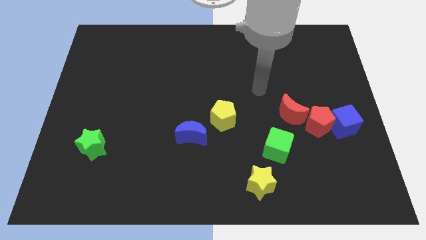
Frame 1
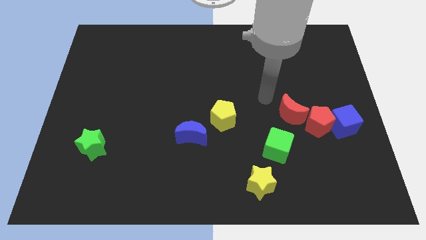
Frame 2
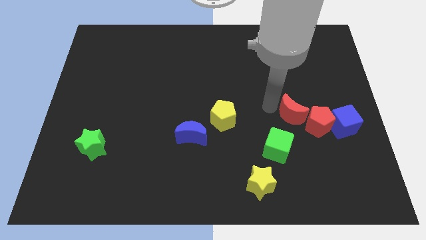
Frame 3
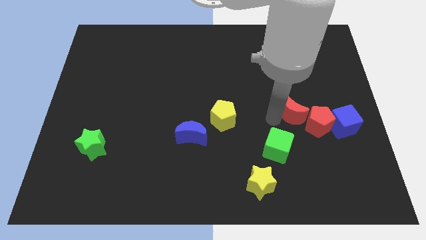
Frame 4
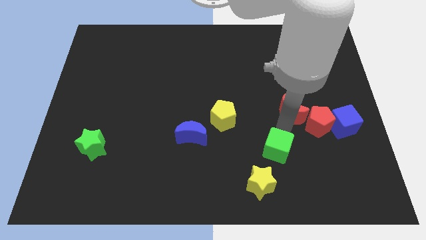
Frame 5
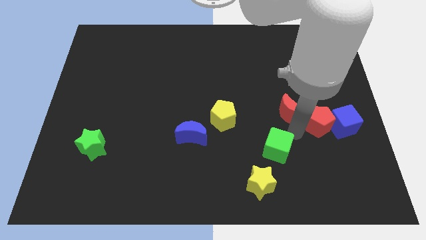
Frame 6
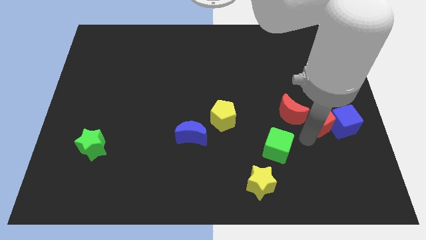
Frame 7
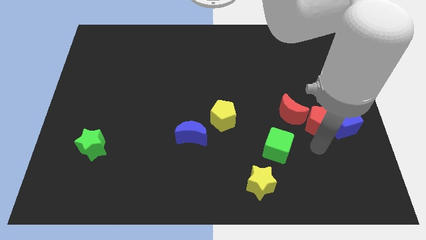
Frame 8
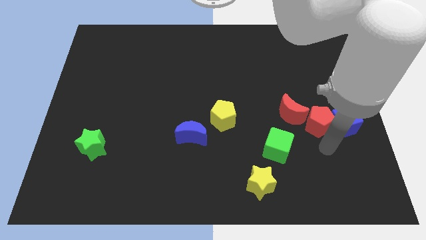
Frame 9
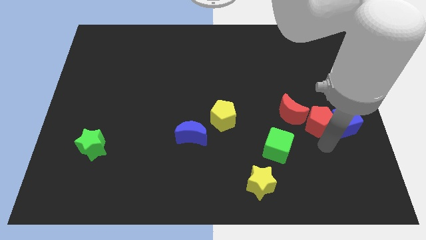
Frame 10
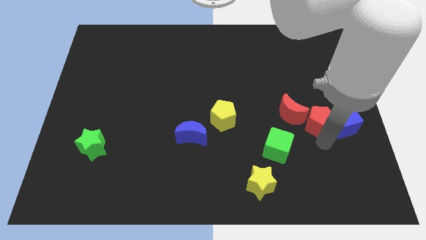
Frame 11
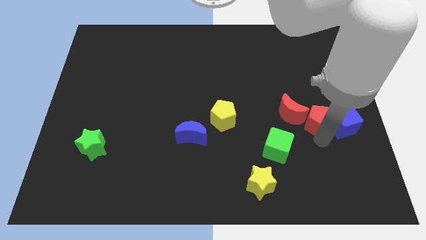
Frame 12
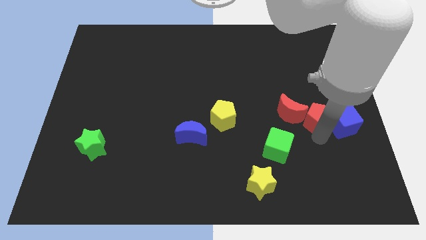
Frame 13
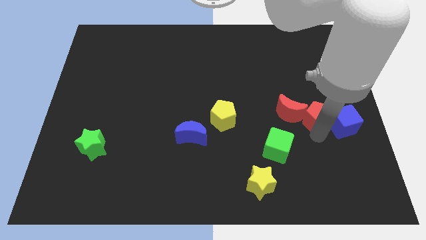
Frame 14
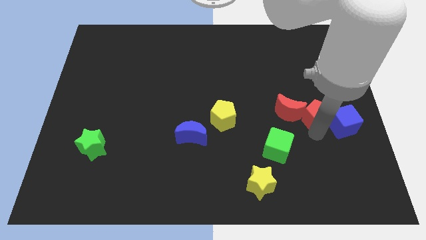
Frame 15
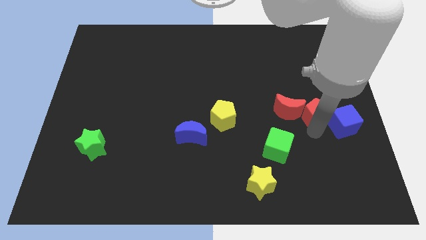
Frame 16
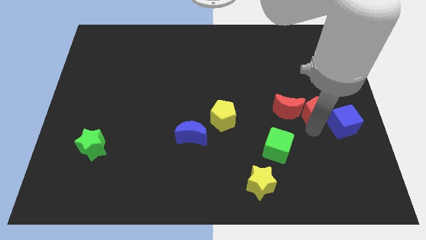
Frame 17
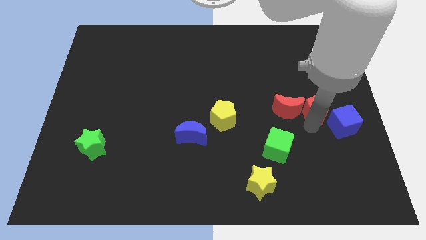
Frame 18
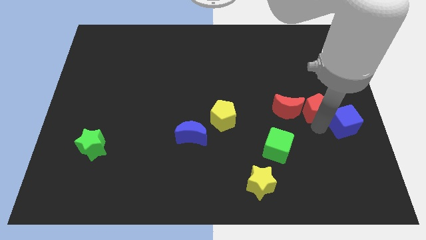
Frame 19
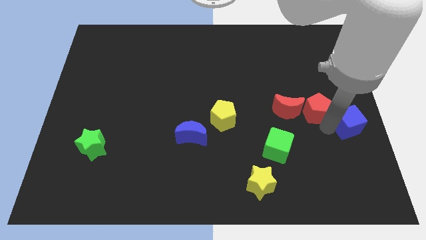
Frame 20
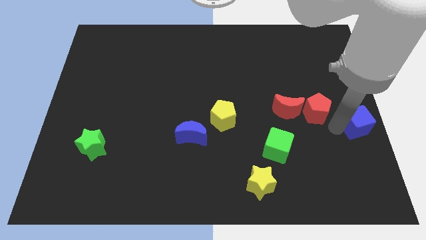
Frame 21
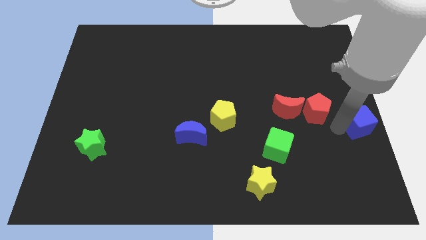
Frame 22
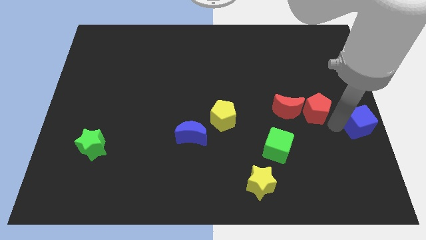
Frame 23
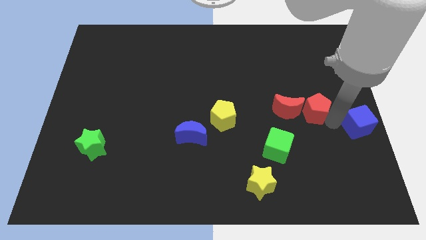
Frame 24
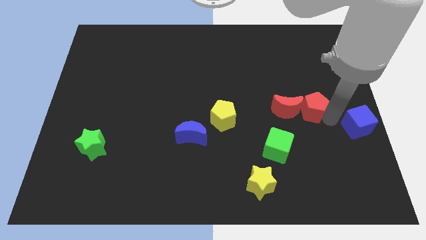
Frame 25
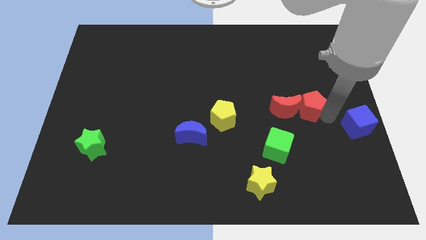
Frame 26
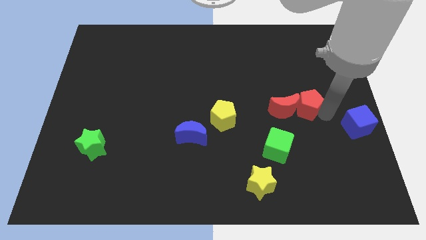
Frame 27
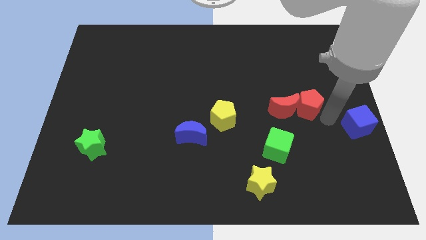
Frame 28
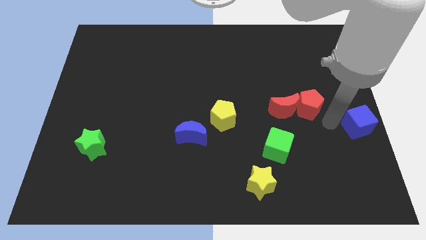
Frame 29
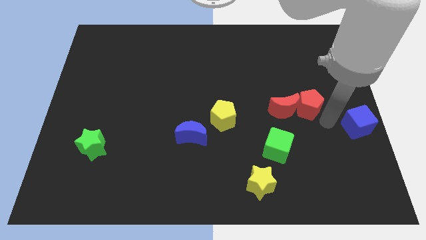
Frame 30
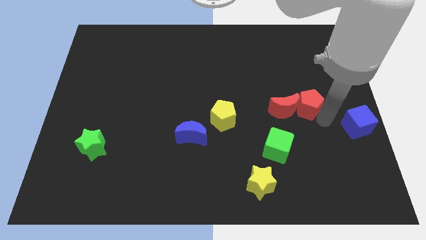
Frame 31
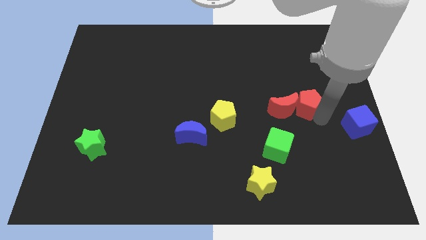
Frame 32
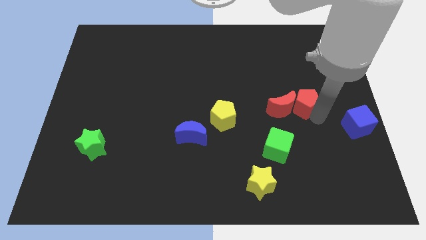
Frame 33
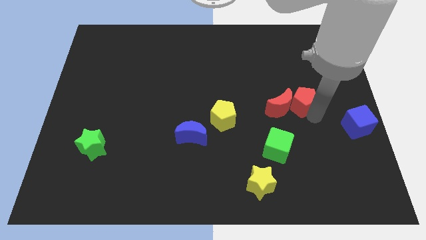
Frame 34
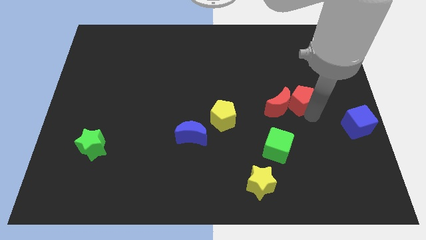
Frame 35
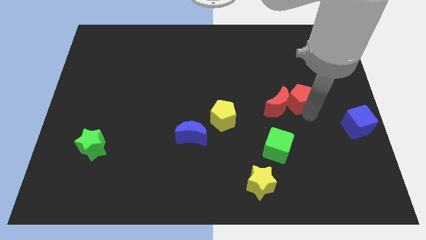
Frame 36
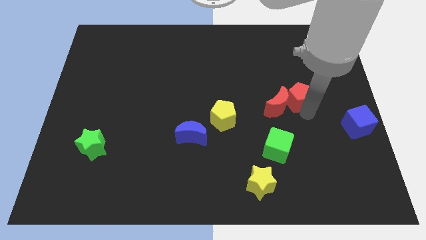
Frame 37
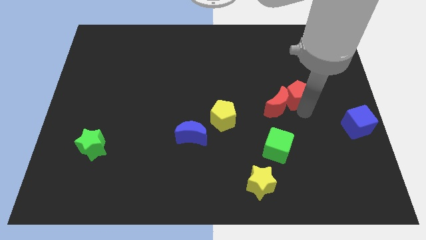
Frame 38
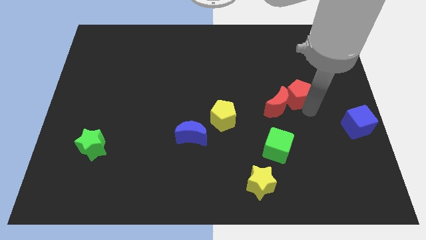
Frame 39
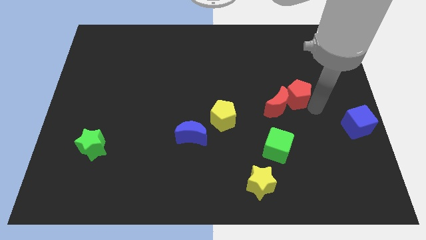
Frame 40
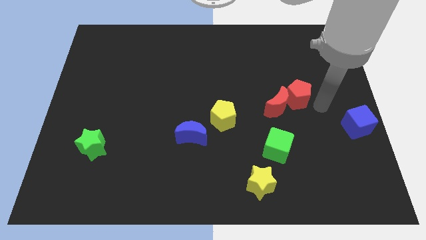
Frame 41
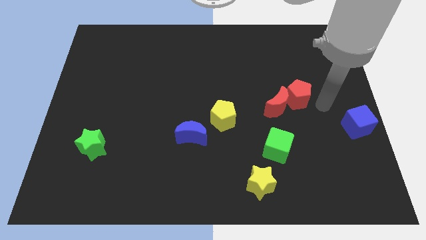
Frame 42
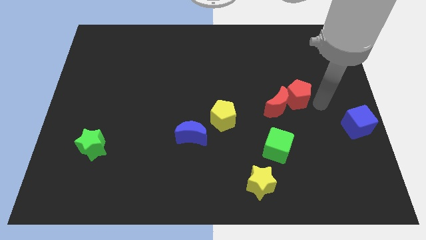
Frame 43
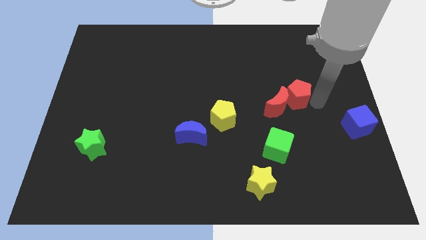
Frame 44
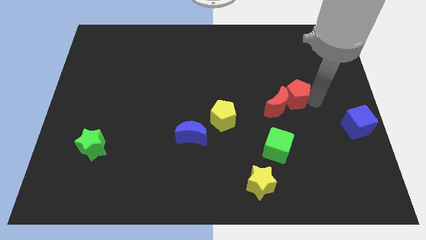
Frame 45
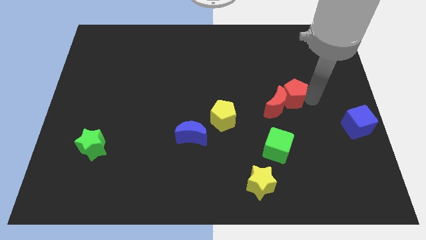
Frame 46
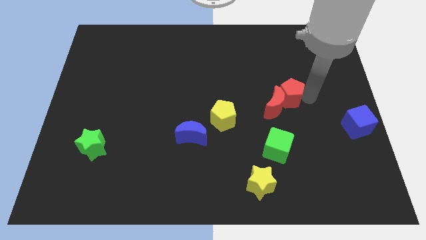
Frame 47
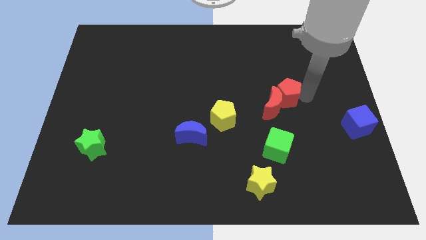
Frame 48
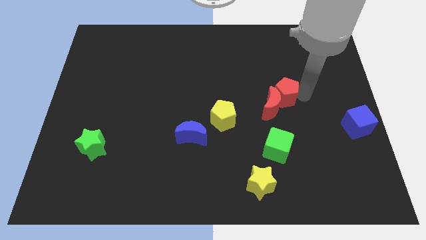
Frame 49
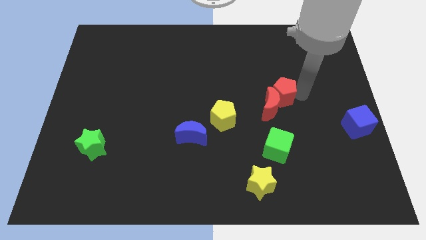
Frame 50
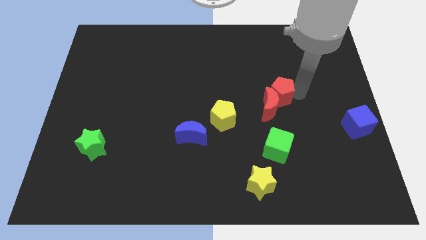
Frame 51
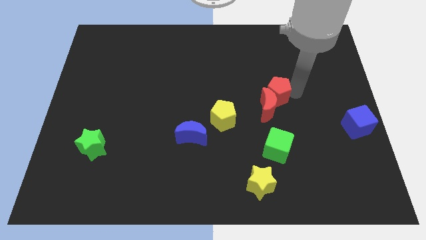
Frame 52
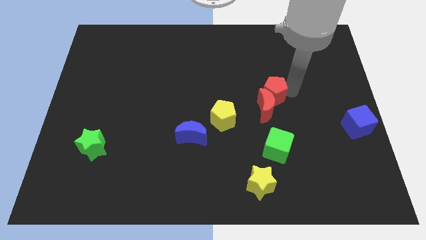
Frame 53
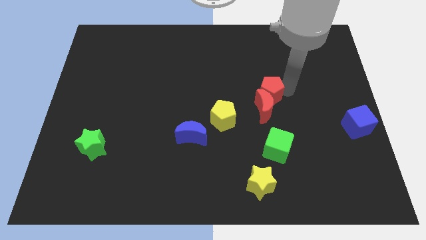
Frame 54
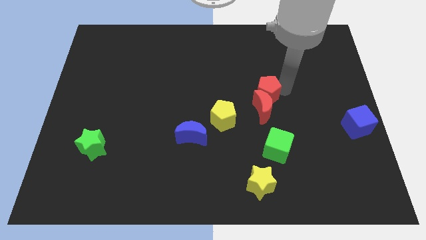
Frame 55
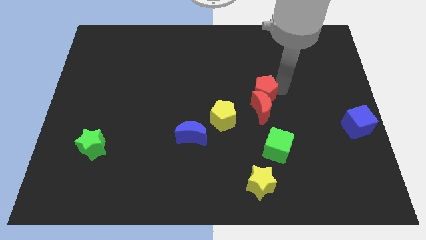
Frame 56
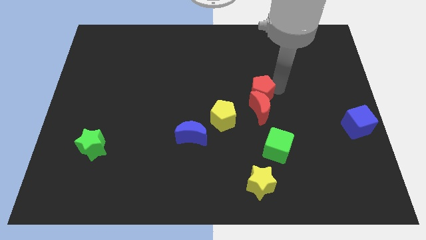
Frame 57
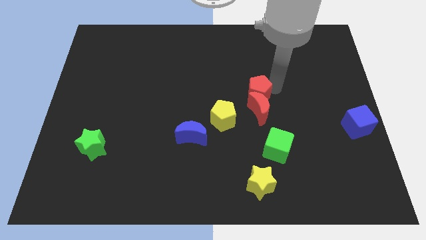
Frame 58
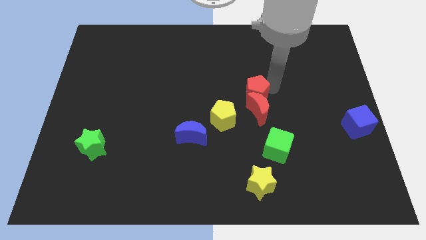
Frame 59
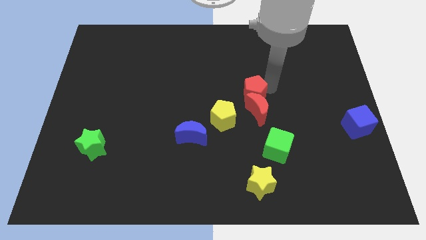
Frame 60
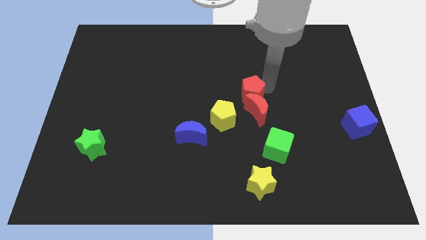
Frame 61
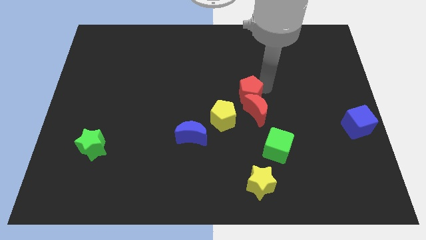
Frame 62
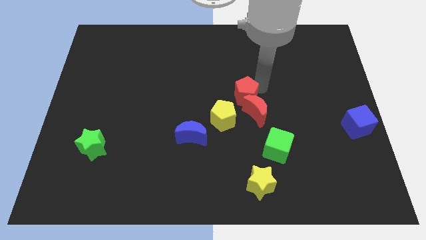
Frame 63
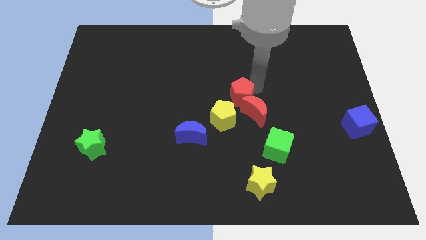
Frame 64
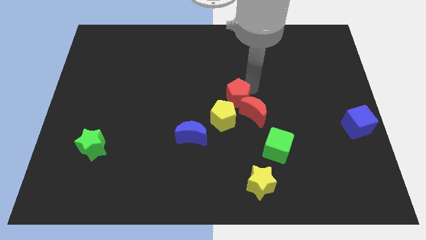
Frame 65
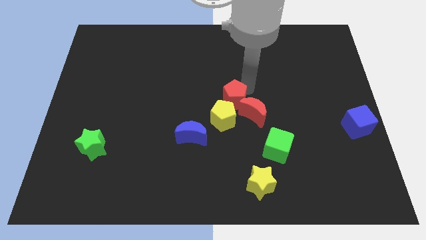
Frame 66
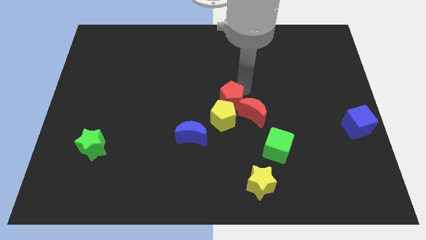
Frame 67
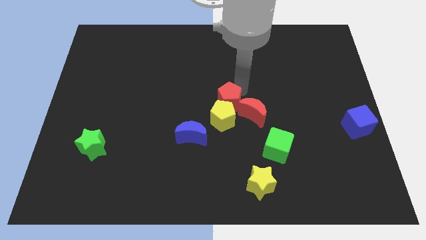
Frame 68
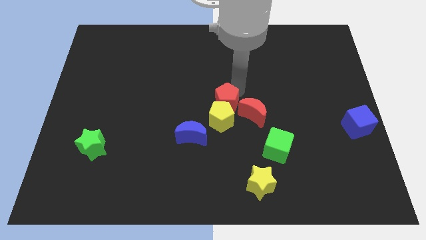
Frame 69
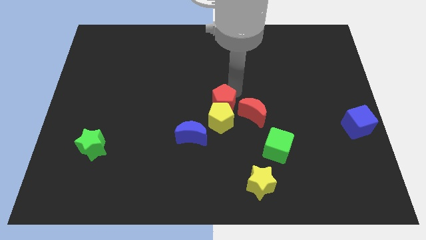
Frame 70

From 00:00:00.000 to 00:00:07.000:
push the red pentagon left

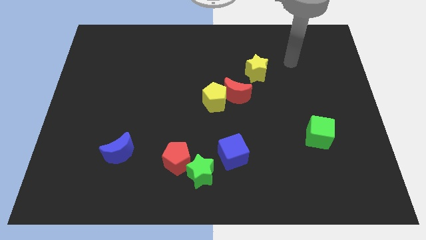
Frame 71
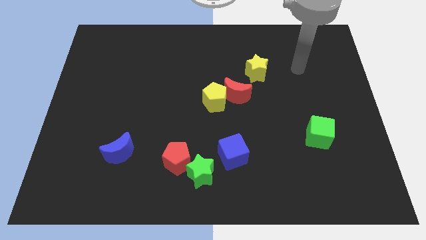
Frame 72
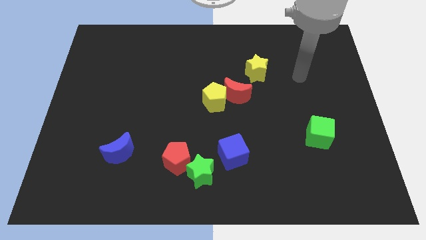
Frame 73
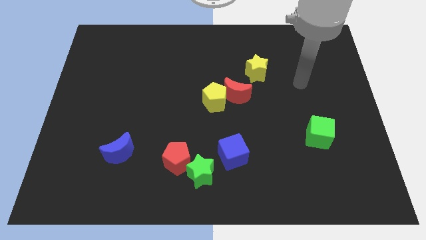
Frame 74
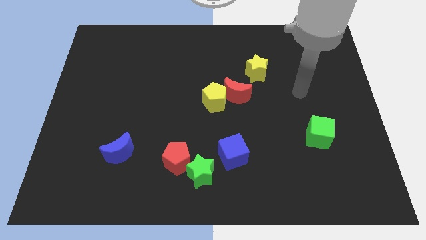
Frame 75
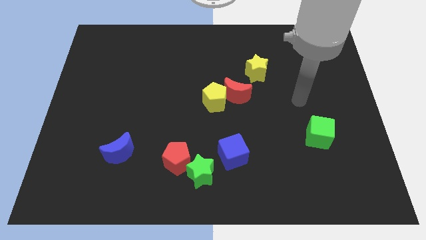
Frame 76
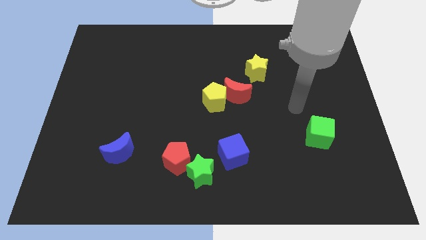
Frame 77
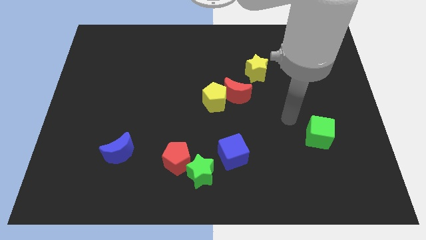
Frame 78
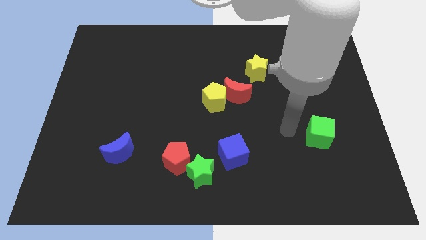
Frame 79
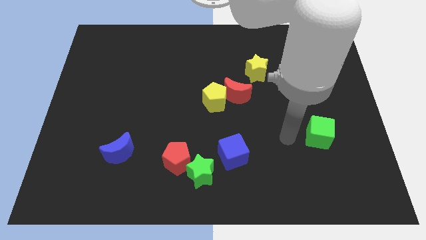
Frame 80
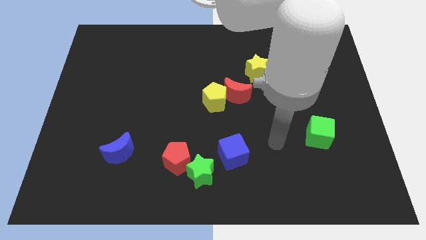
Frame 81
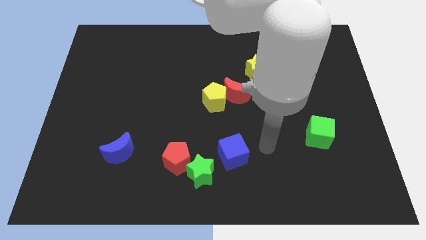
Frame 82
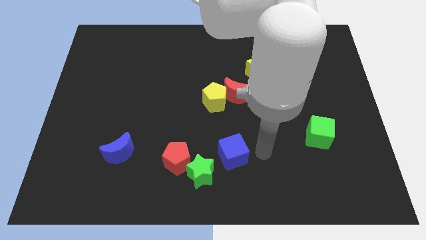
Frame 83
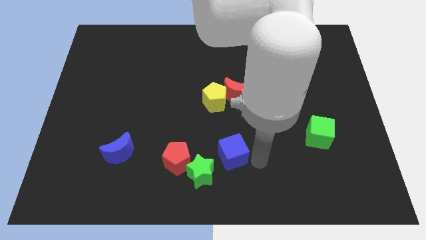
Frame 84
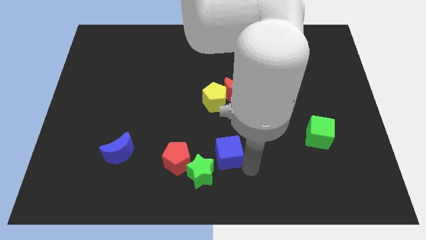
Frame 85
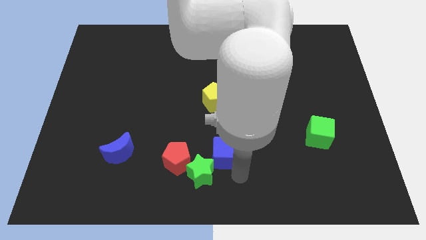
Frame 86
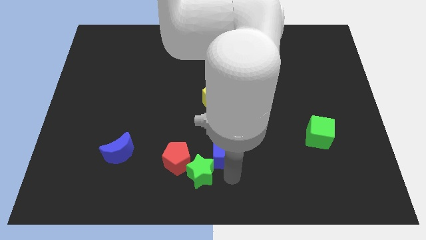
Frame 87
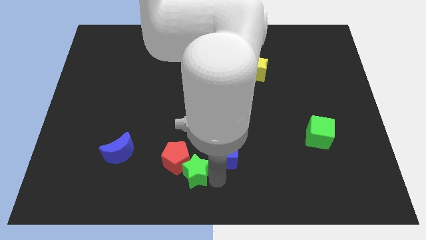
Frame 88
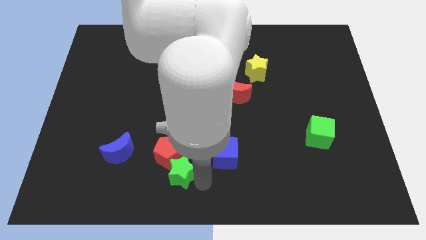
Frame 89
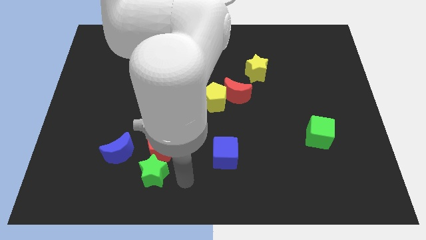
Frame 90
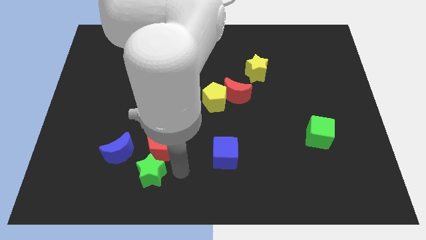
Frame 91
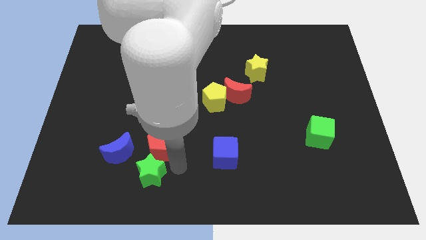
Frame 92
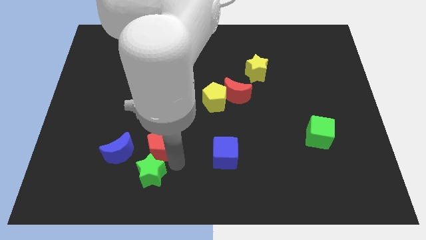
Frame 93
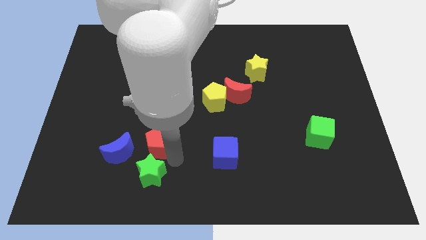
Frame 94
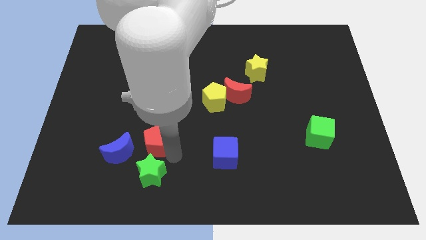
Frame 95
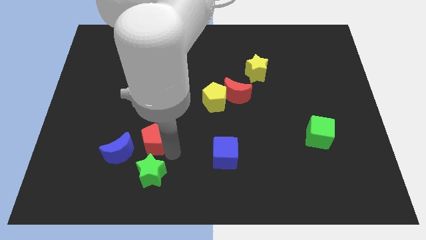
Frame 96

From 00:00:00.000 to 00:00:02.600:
slide the red pentagon diagonally upwards and to the left a little bit
